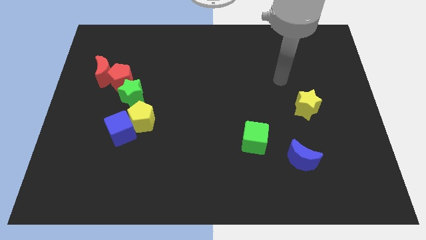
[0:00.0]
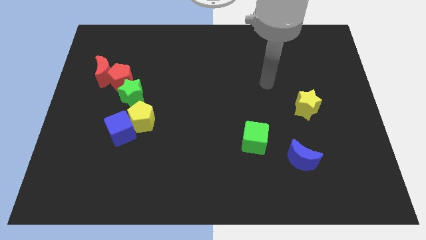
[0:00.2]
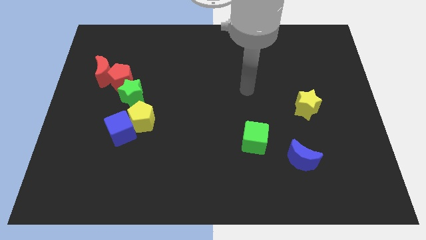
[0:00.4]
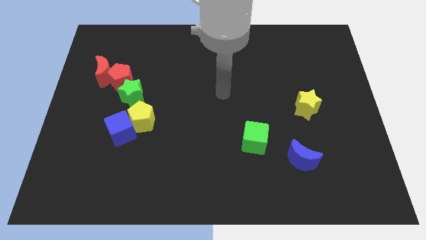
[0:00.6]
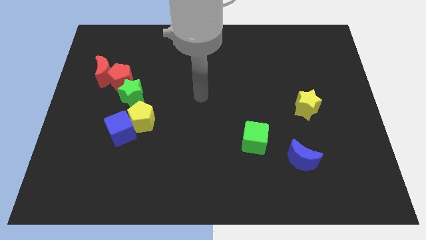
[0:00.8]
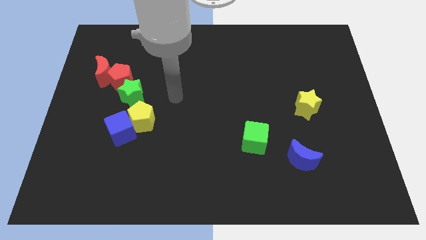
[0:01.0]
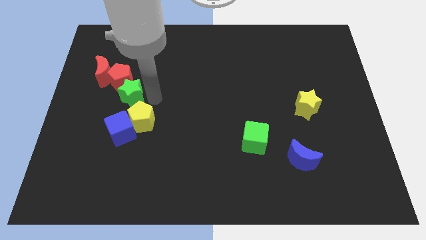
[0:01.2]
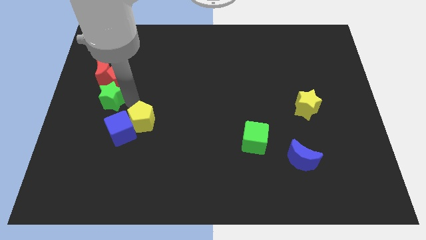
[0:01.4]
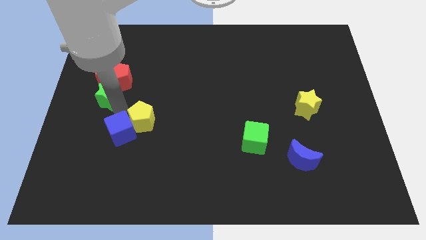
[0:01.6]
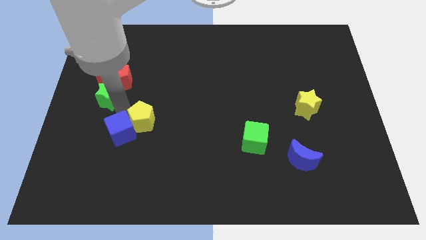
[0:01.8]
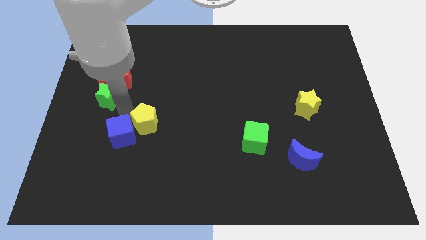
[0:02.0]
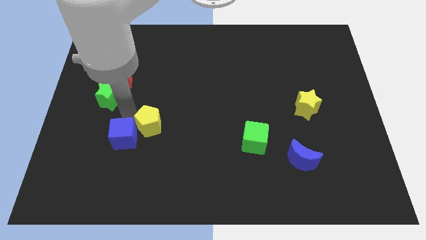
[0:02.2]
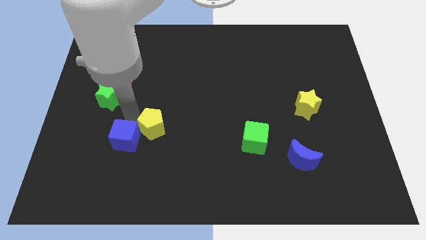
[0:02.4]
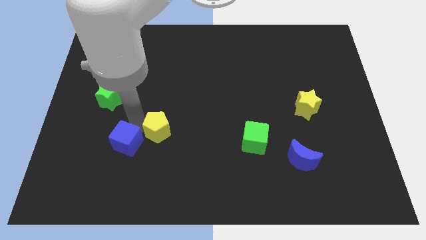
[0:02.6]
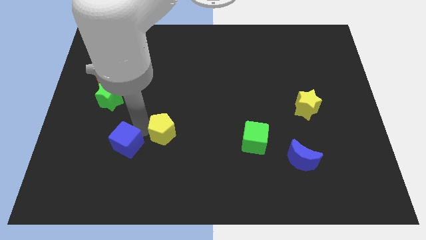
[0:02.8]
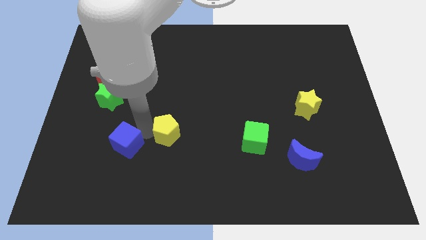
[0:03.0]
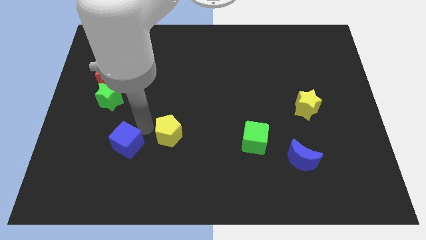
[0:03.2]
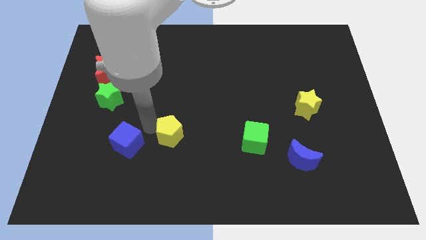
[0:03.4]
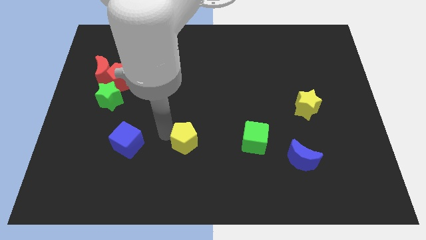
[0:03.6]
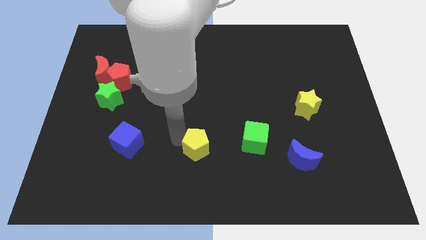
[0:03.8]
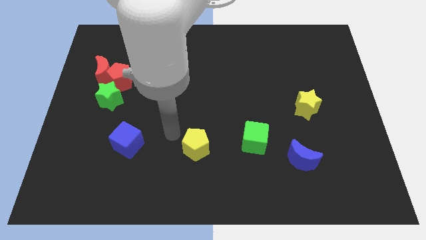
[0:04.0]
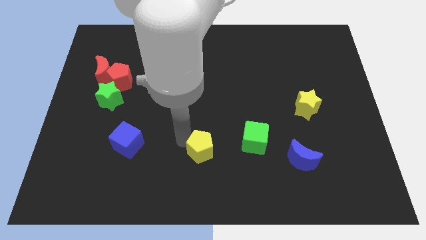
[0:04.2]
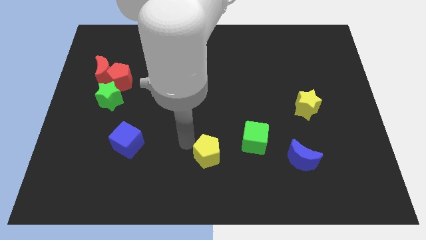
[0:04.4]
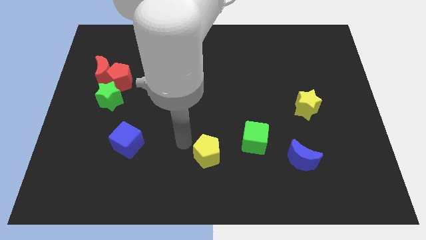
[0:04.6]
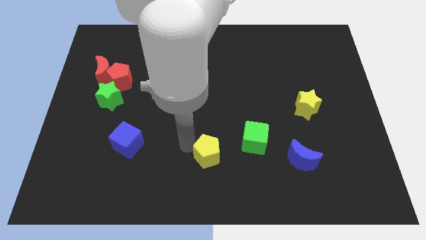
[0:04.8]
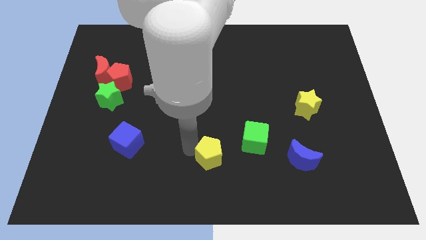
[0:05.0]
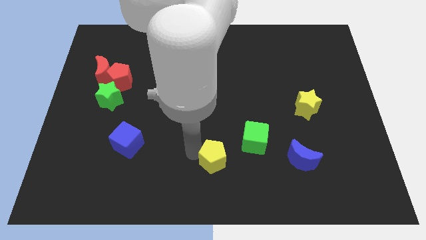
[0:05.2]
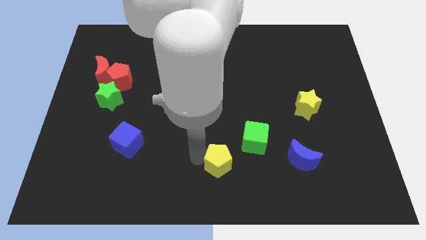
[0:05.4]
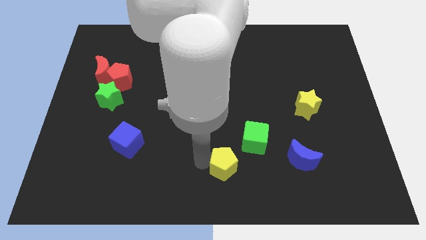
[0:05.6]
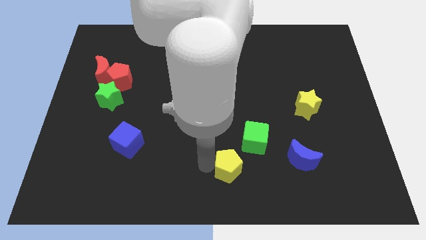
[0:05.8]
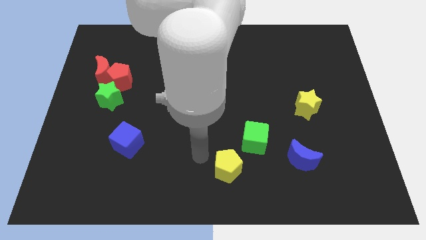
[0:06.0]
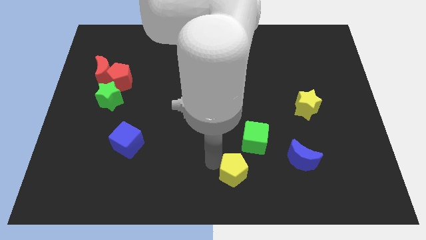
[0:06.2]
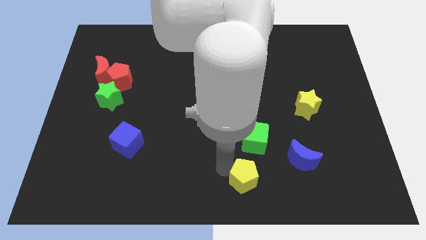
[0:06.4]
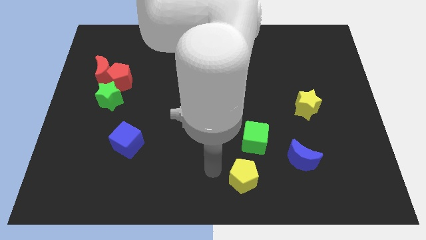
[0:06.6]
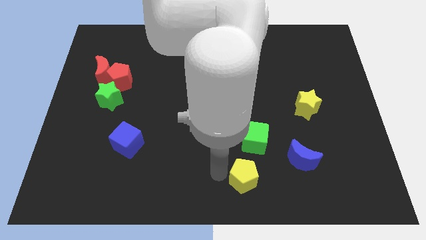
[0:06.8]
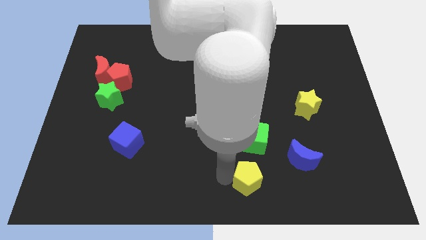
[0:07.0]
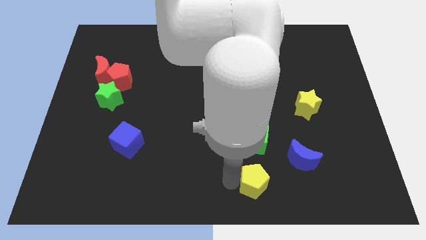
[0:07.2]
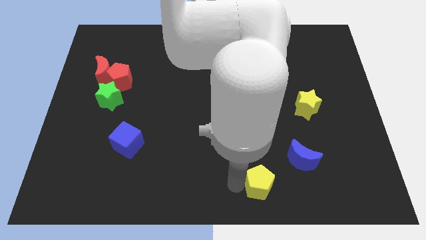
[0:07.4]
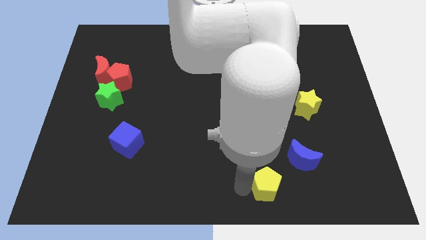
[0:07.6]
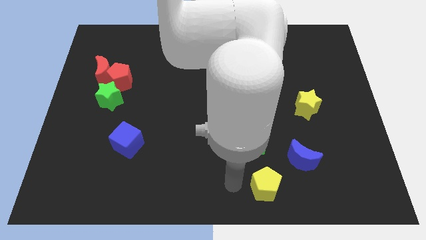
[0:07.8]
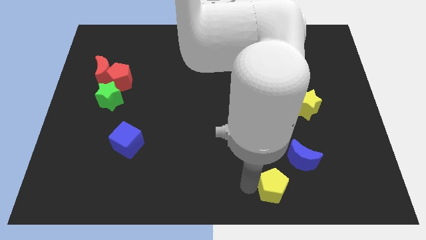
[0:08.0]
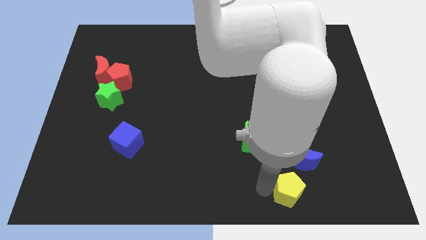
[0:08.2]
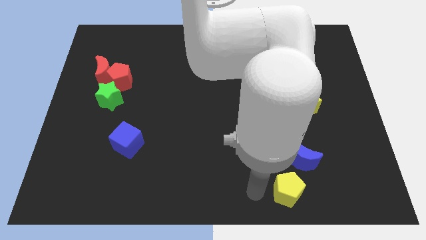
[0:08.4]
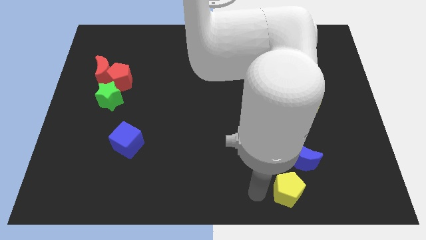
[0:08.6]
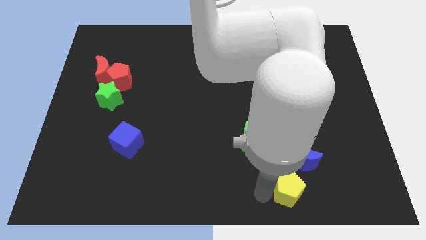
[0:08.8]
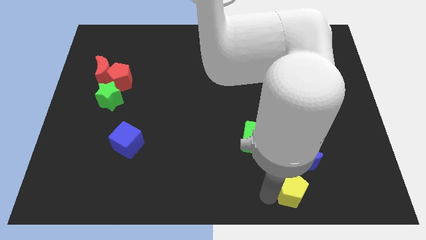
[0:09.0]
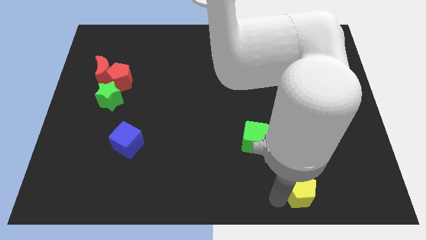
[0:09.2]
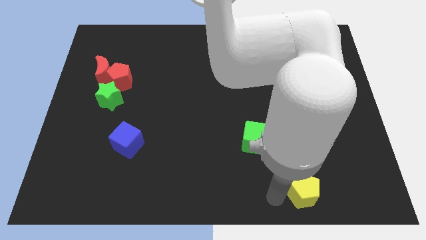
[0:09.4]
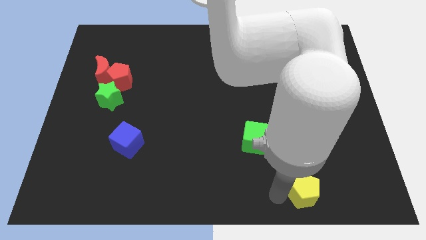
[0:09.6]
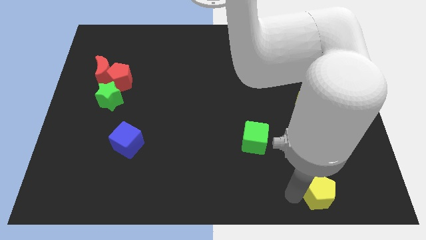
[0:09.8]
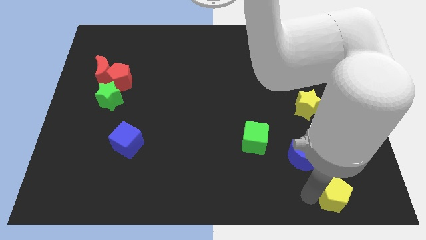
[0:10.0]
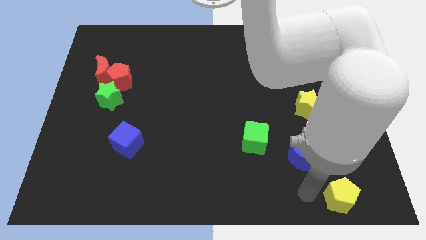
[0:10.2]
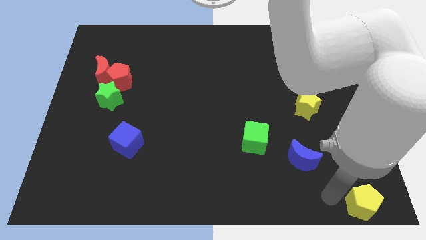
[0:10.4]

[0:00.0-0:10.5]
put the yellow pentagon to the bottom right of the board

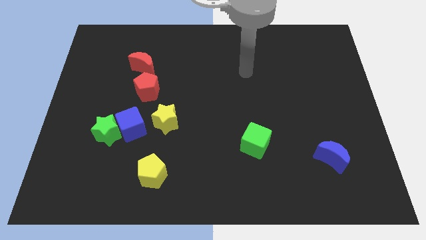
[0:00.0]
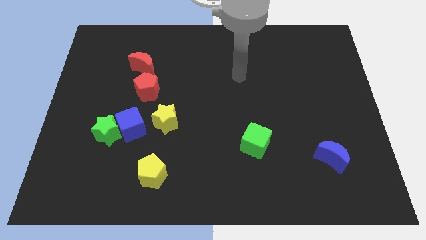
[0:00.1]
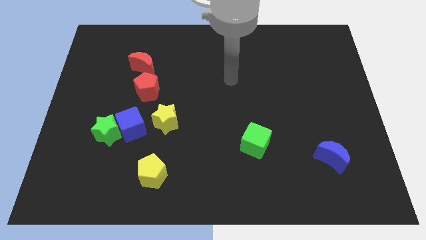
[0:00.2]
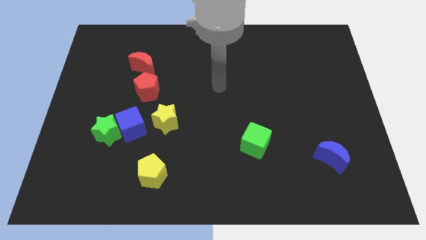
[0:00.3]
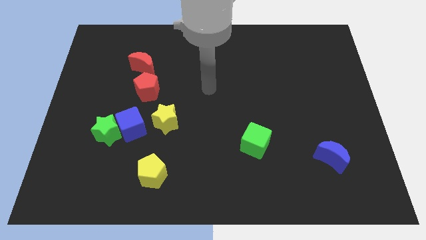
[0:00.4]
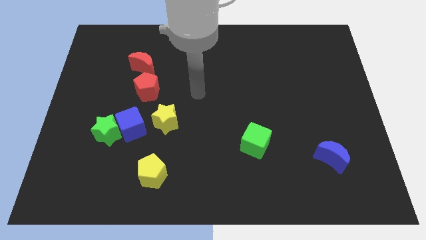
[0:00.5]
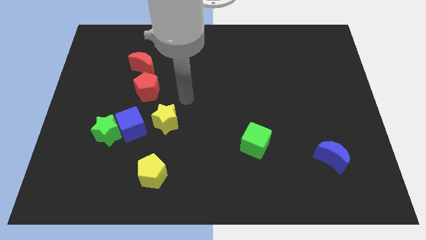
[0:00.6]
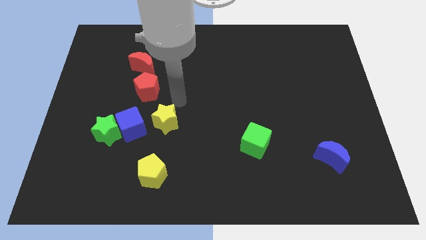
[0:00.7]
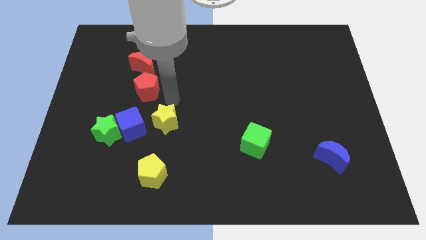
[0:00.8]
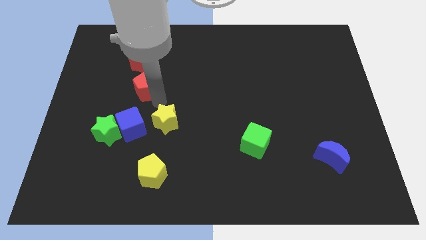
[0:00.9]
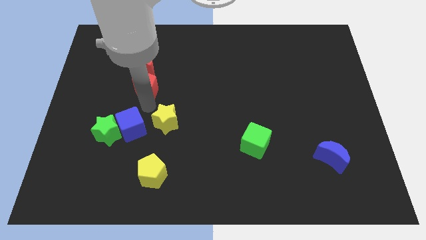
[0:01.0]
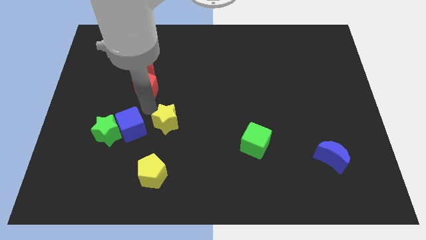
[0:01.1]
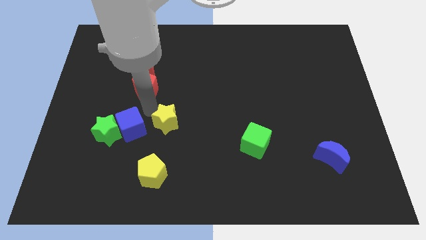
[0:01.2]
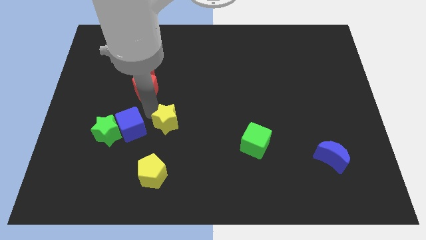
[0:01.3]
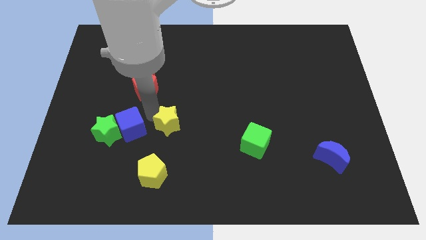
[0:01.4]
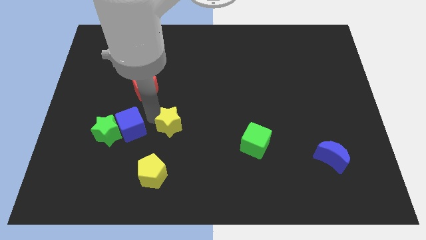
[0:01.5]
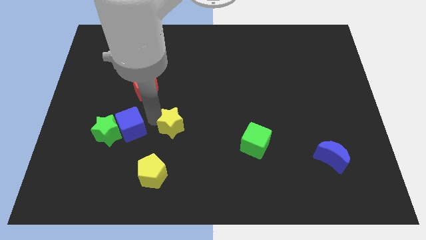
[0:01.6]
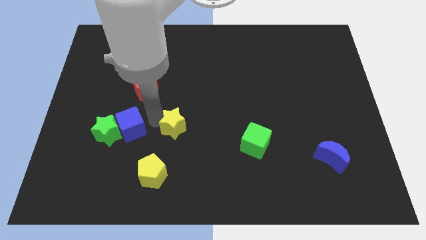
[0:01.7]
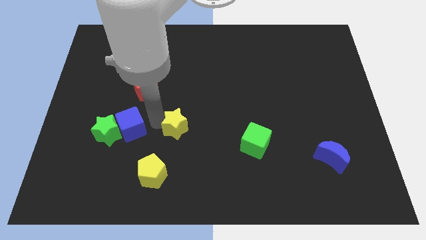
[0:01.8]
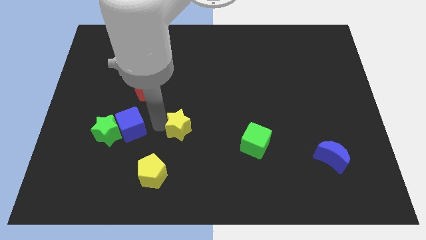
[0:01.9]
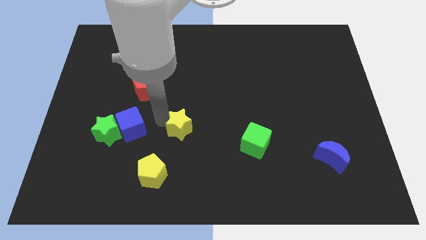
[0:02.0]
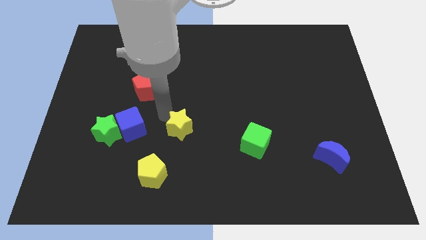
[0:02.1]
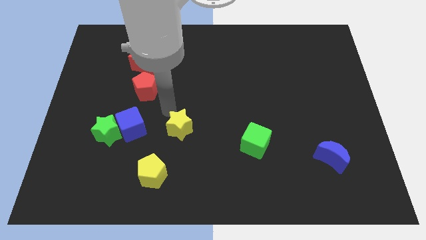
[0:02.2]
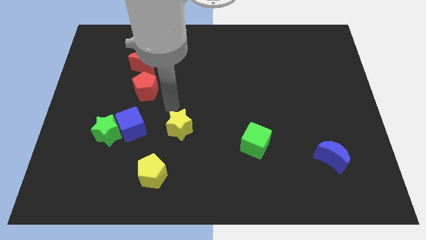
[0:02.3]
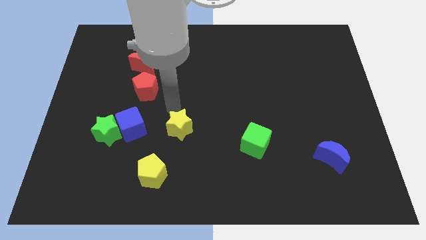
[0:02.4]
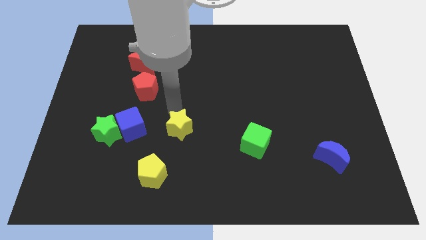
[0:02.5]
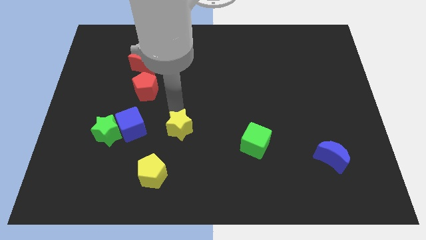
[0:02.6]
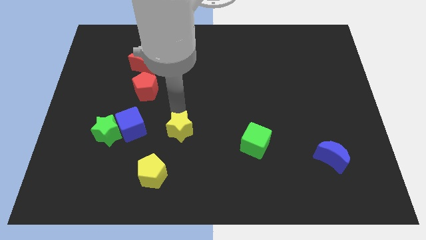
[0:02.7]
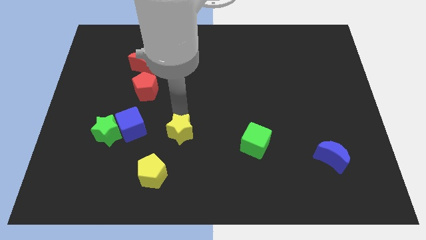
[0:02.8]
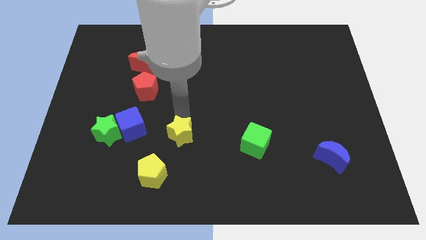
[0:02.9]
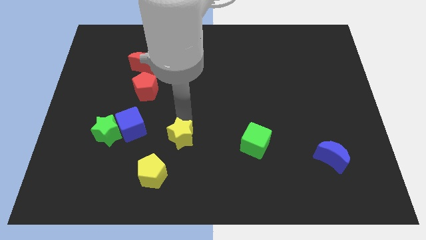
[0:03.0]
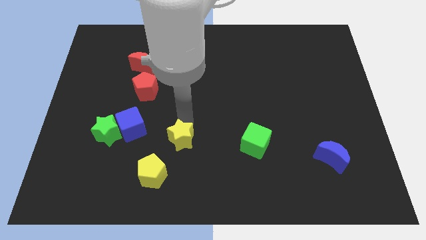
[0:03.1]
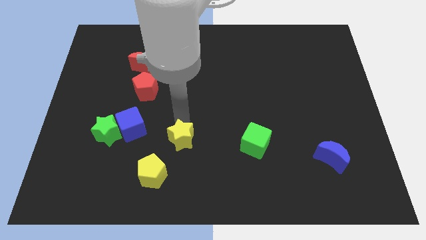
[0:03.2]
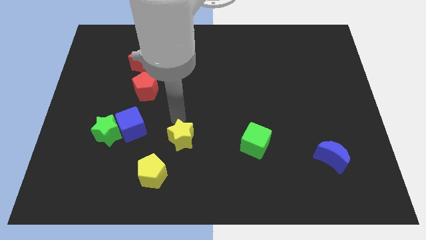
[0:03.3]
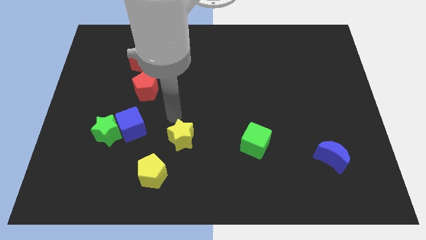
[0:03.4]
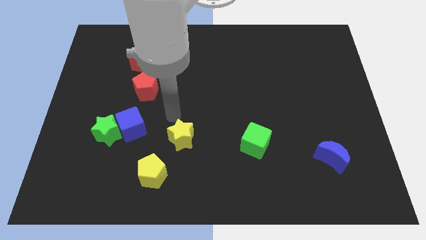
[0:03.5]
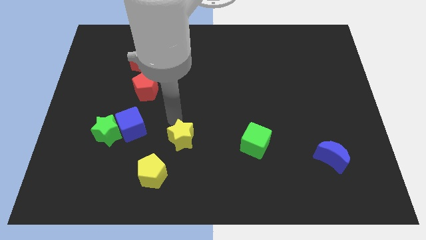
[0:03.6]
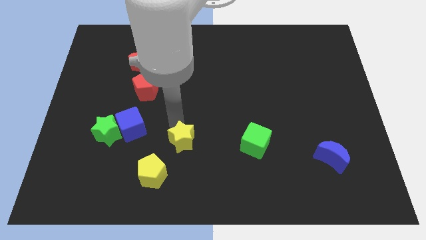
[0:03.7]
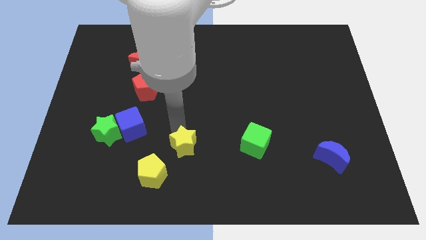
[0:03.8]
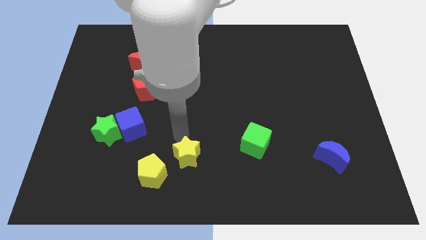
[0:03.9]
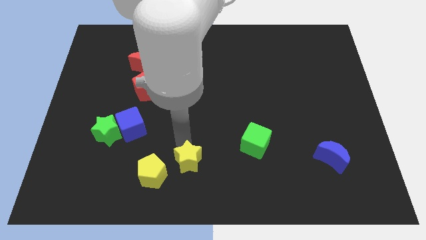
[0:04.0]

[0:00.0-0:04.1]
move the yellow star to the bottom
